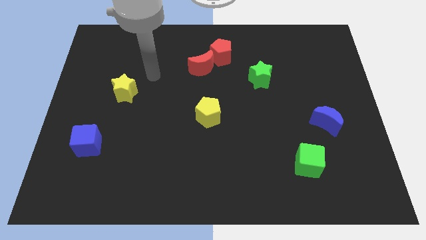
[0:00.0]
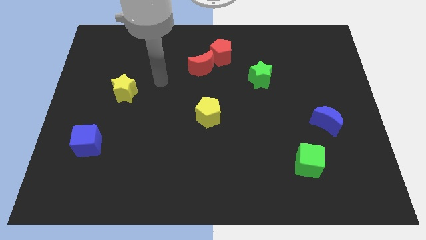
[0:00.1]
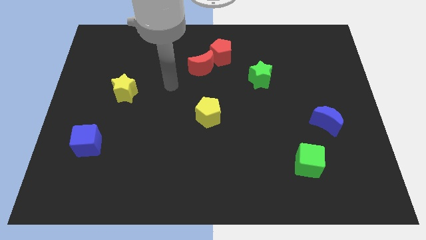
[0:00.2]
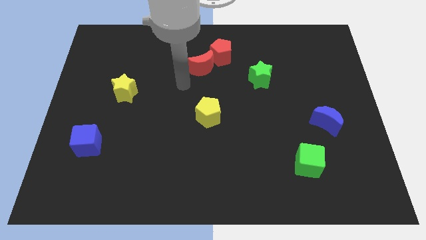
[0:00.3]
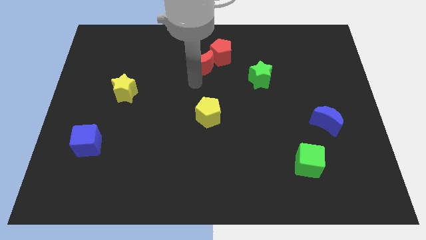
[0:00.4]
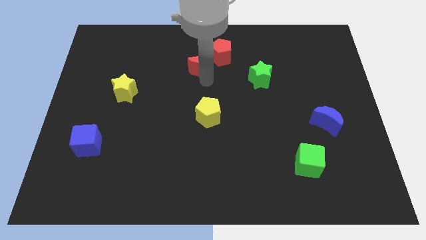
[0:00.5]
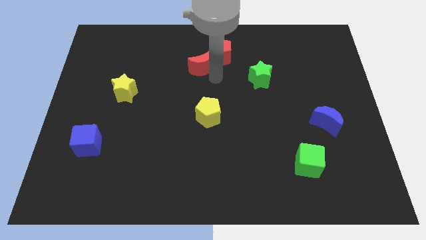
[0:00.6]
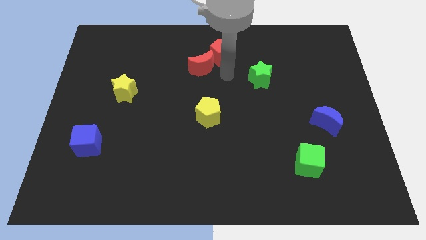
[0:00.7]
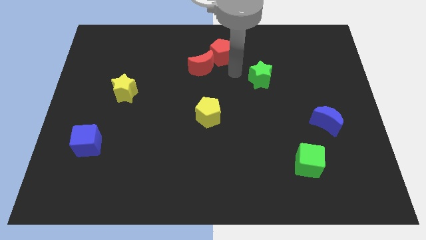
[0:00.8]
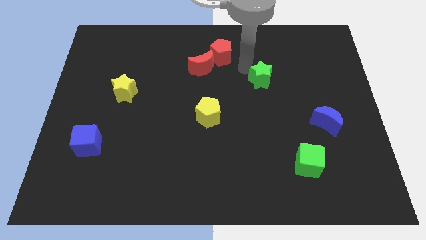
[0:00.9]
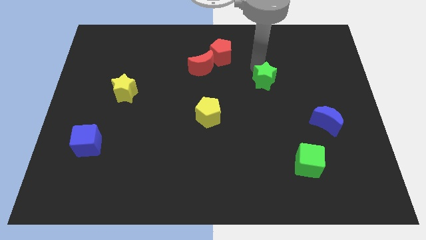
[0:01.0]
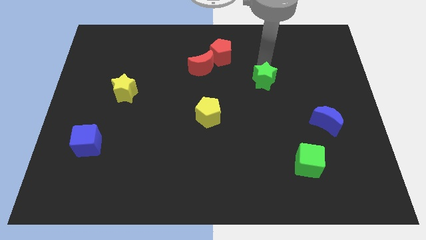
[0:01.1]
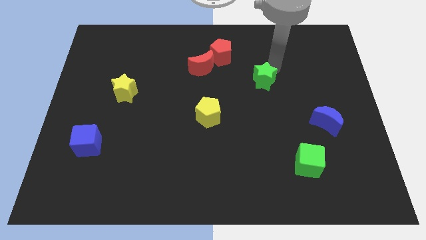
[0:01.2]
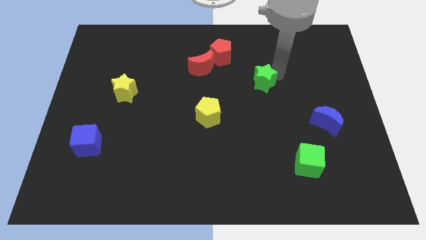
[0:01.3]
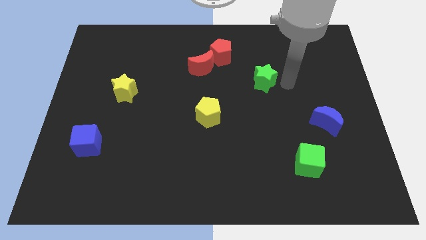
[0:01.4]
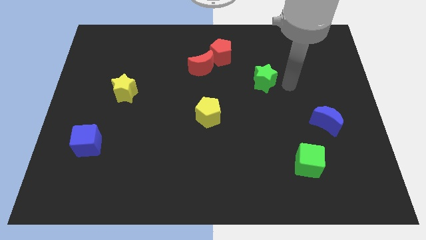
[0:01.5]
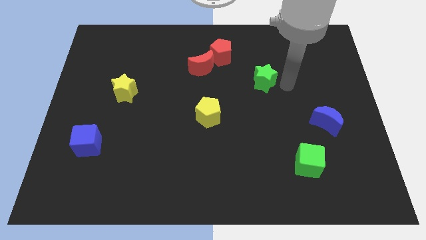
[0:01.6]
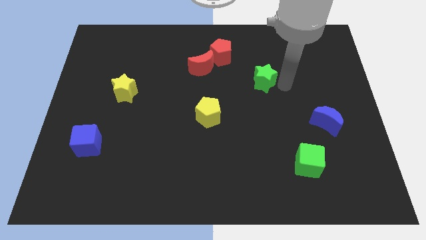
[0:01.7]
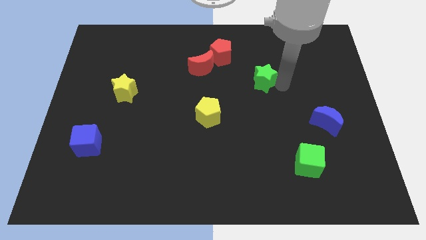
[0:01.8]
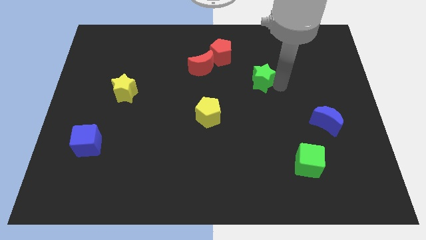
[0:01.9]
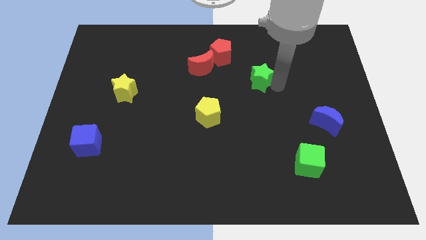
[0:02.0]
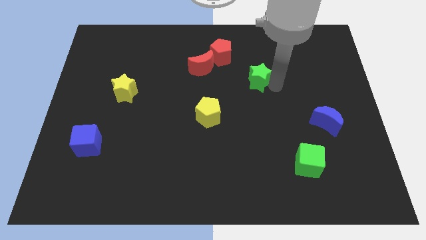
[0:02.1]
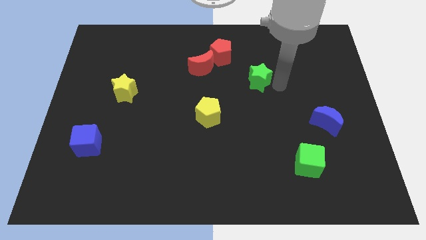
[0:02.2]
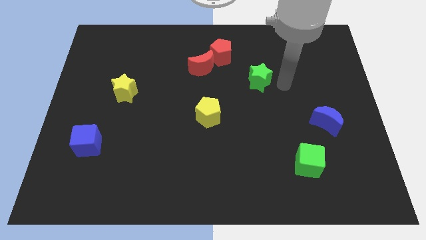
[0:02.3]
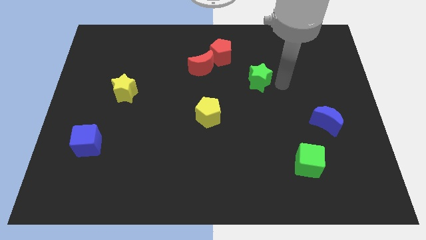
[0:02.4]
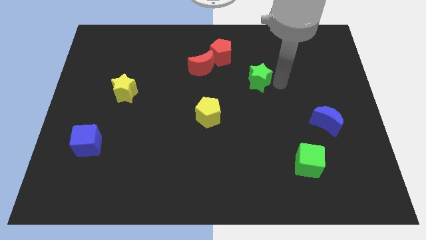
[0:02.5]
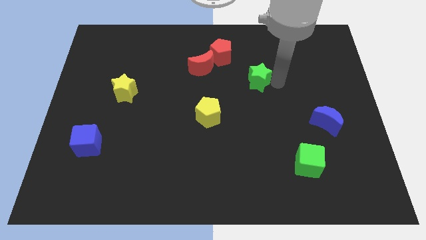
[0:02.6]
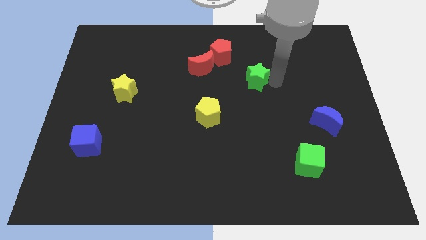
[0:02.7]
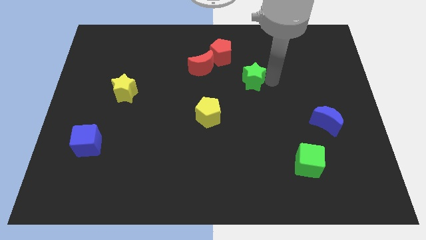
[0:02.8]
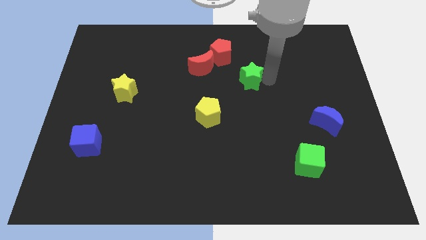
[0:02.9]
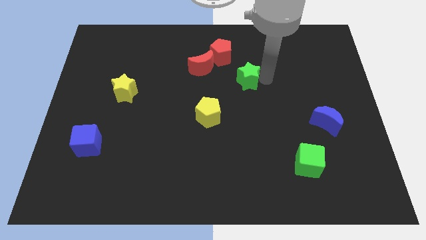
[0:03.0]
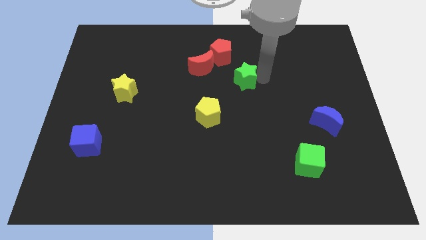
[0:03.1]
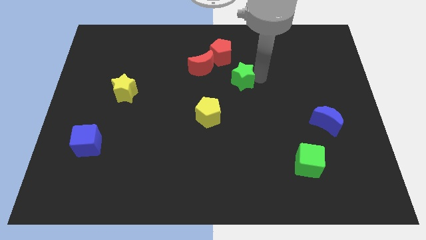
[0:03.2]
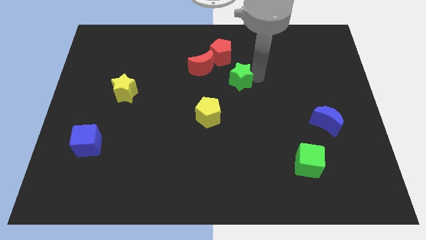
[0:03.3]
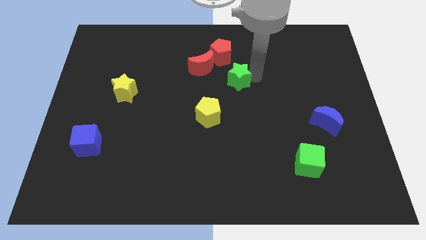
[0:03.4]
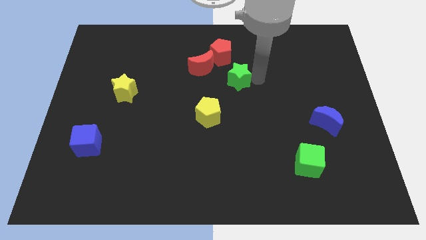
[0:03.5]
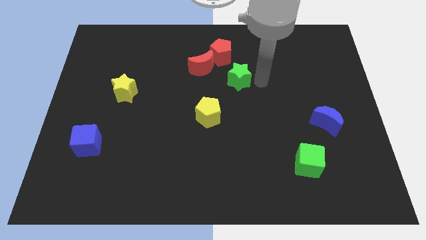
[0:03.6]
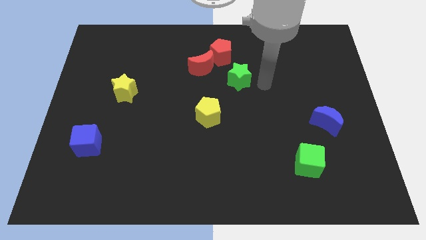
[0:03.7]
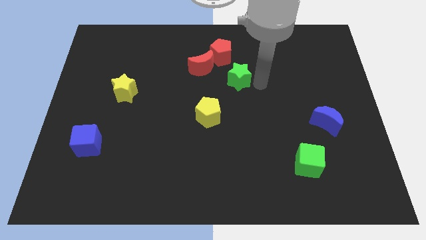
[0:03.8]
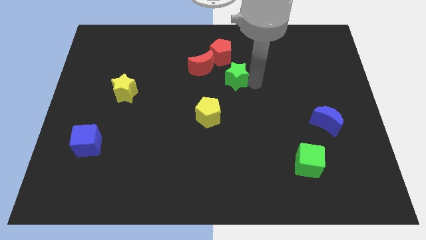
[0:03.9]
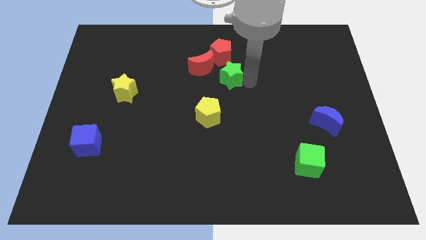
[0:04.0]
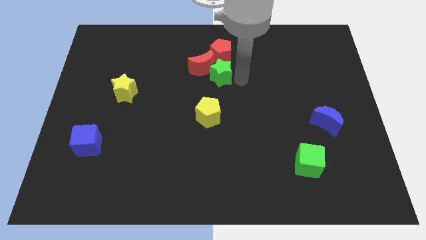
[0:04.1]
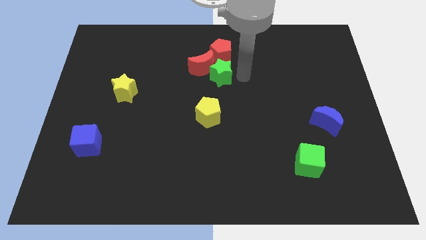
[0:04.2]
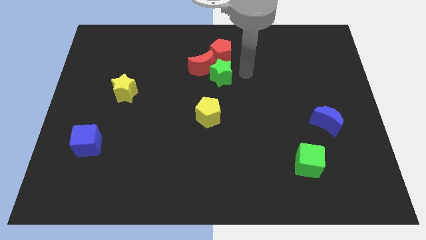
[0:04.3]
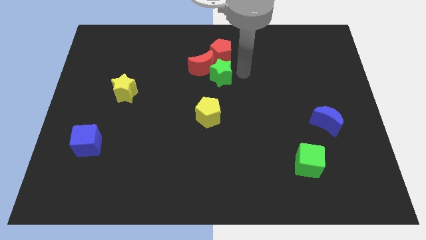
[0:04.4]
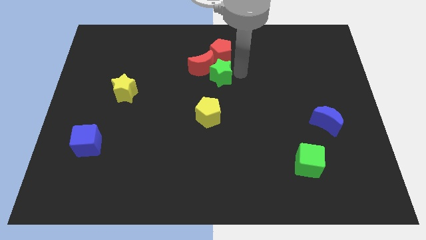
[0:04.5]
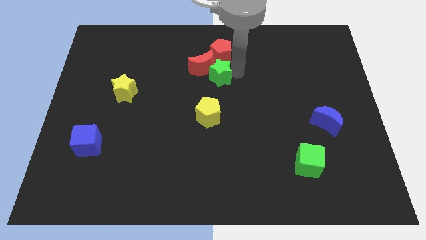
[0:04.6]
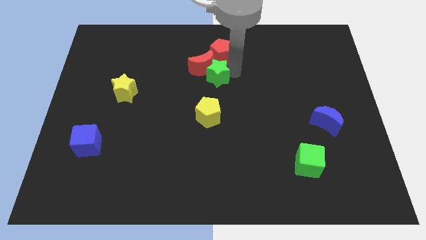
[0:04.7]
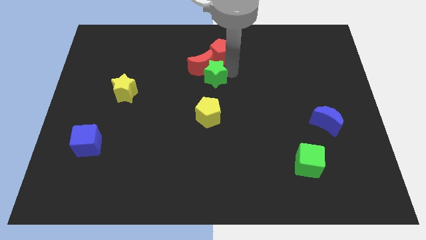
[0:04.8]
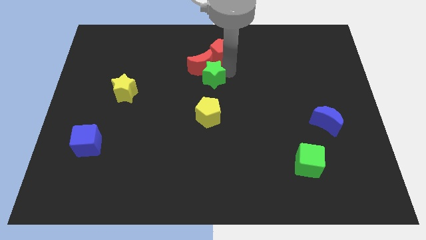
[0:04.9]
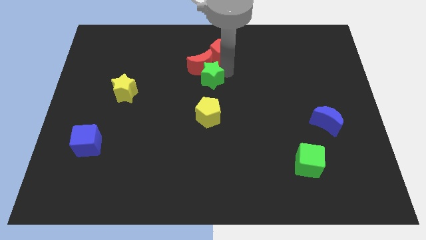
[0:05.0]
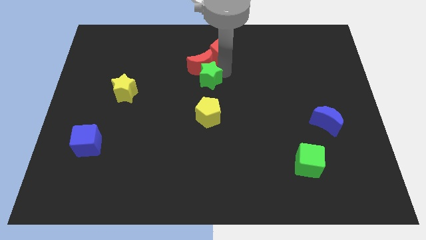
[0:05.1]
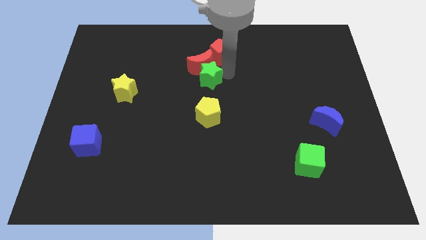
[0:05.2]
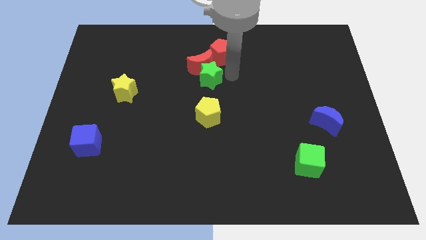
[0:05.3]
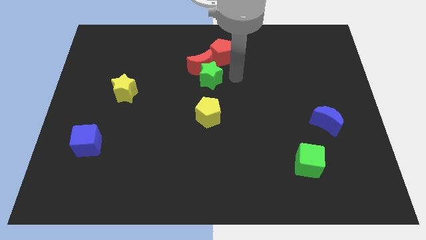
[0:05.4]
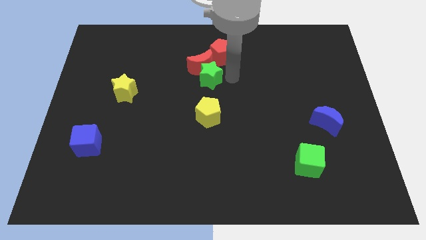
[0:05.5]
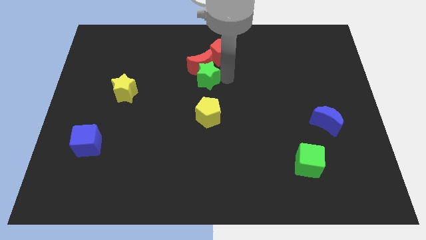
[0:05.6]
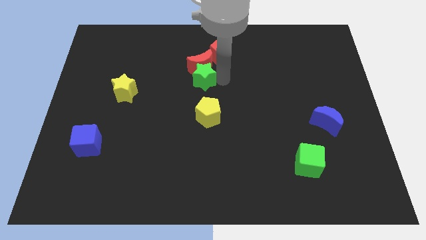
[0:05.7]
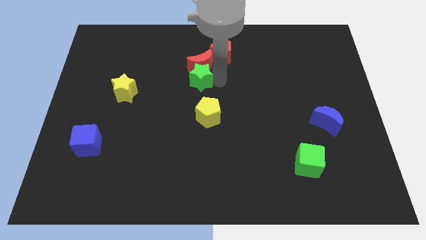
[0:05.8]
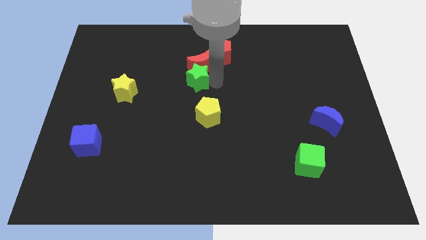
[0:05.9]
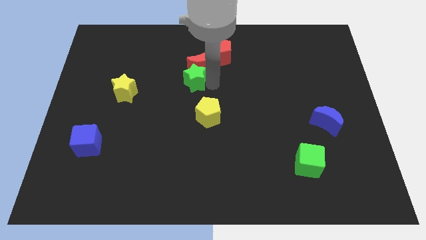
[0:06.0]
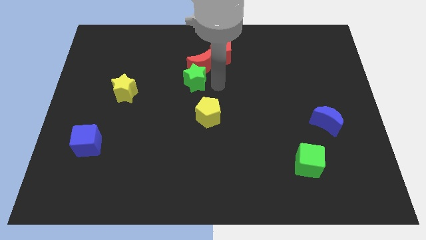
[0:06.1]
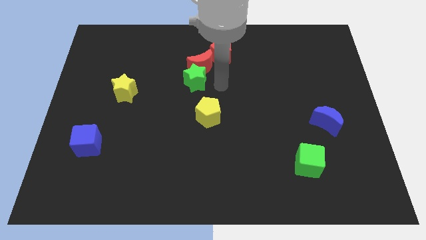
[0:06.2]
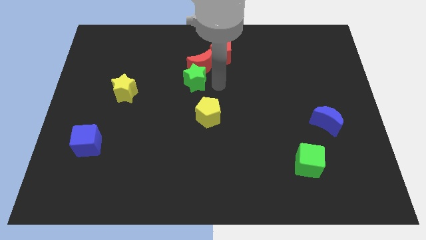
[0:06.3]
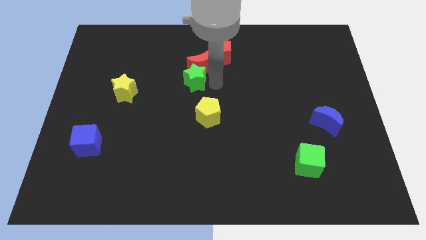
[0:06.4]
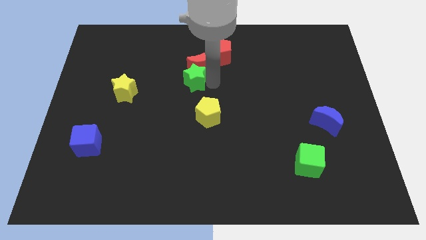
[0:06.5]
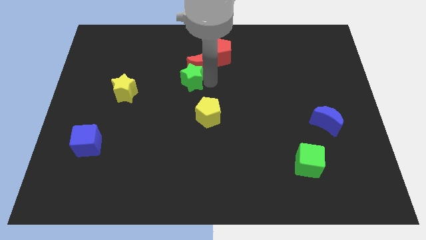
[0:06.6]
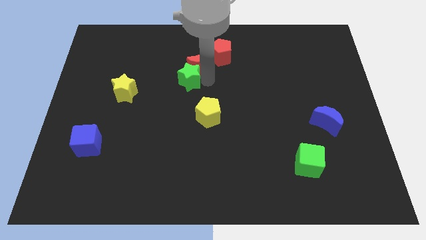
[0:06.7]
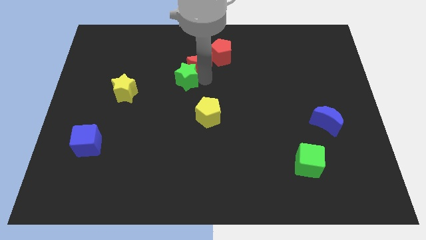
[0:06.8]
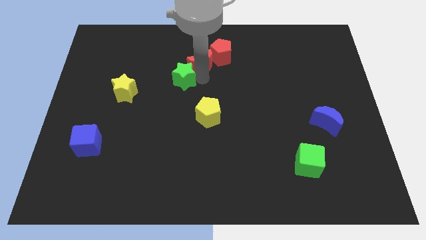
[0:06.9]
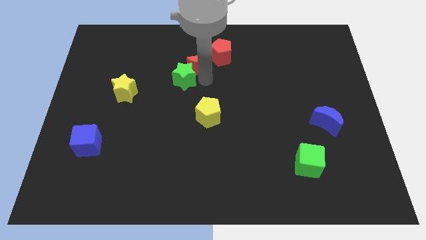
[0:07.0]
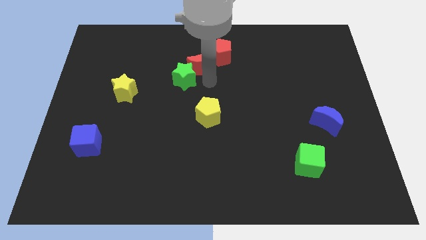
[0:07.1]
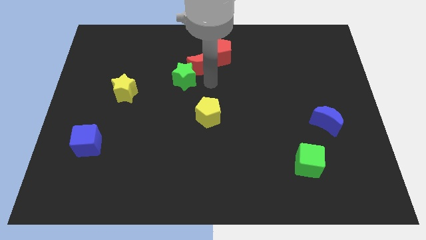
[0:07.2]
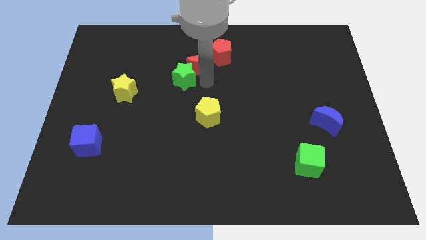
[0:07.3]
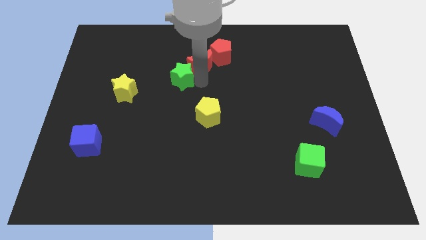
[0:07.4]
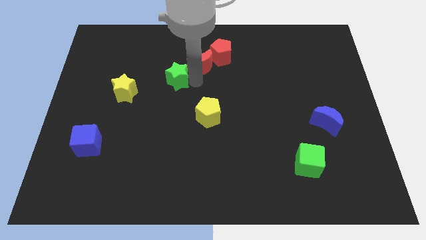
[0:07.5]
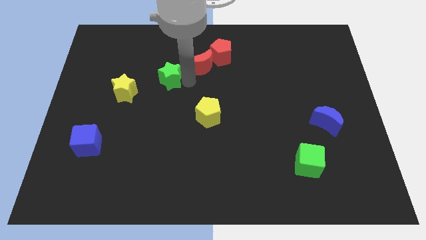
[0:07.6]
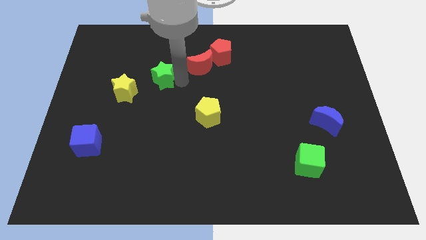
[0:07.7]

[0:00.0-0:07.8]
move the green star to the top right of the yellow star
